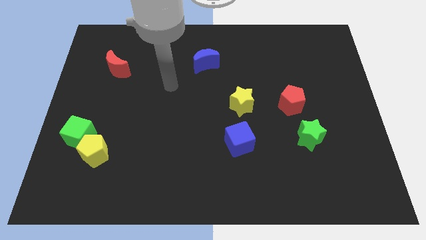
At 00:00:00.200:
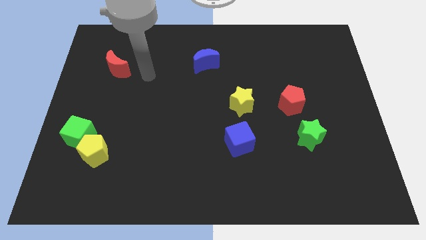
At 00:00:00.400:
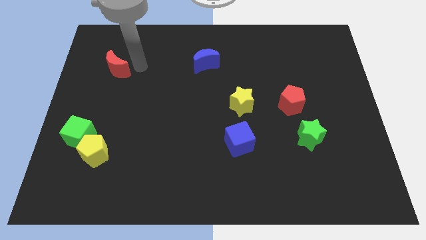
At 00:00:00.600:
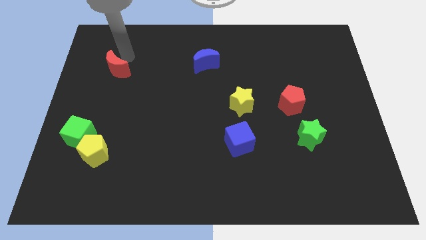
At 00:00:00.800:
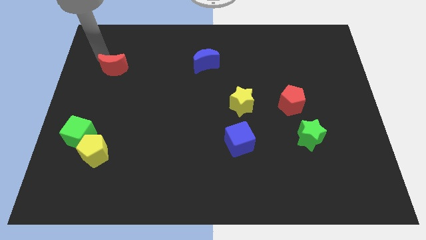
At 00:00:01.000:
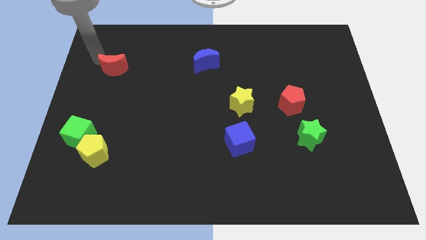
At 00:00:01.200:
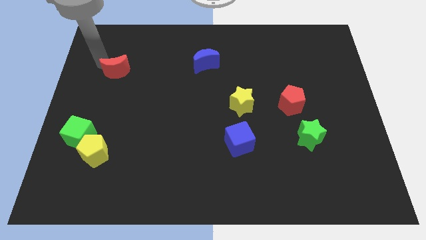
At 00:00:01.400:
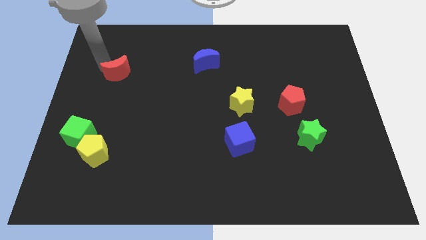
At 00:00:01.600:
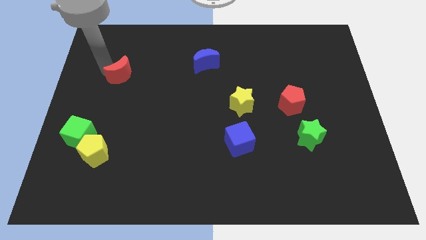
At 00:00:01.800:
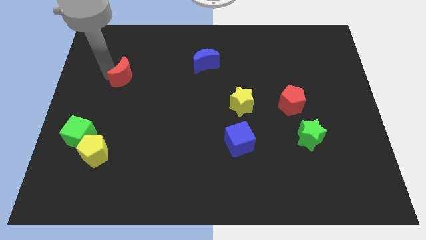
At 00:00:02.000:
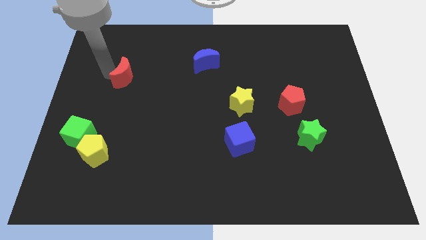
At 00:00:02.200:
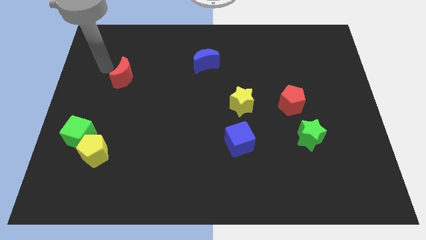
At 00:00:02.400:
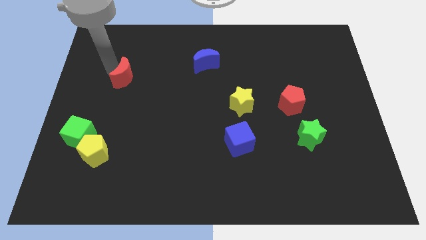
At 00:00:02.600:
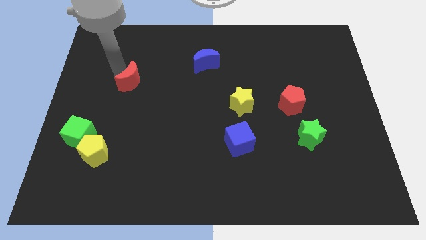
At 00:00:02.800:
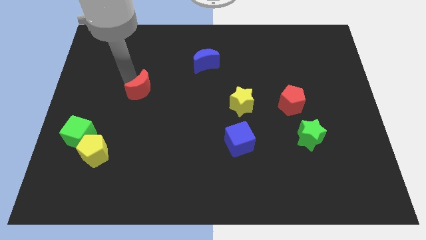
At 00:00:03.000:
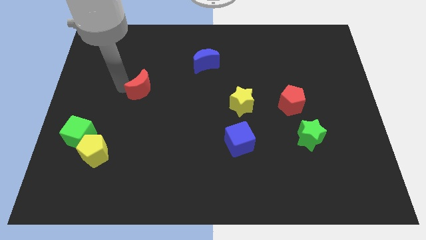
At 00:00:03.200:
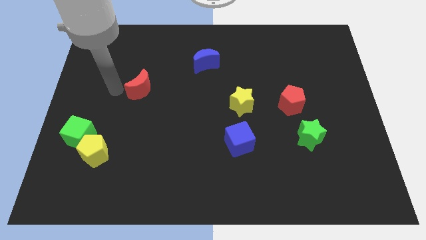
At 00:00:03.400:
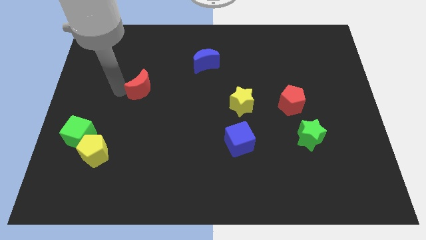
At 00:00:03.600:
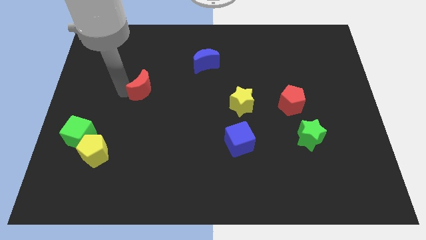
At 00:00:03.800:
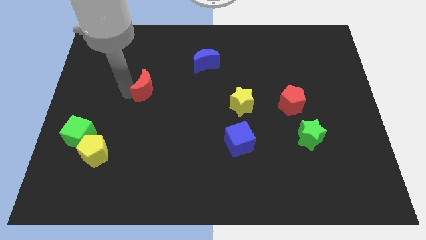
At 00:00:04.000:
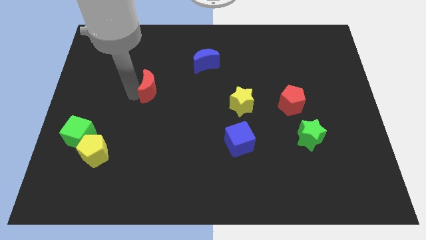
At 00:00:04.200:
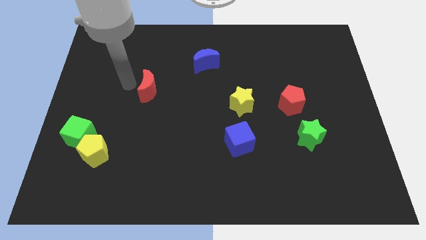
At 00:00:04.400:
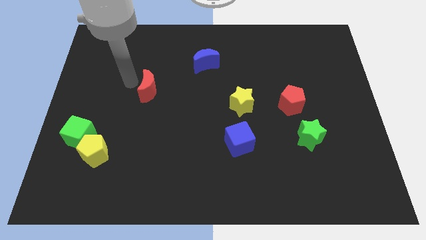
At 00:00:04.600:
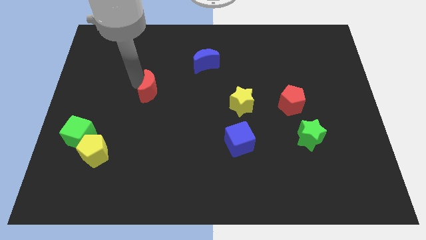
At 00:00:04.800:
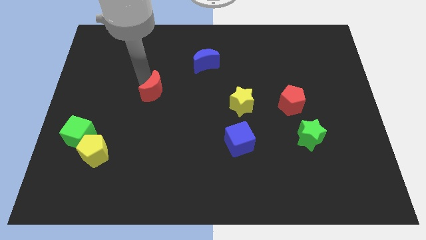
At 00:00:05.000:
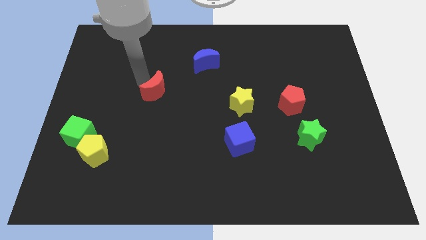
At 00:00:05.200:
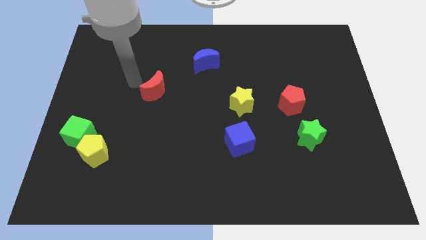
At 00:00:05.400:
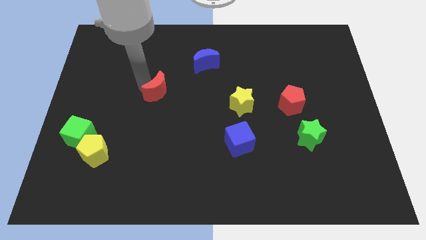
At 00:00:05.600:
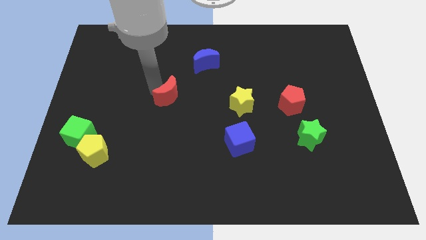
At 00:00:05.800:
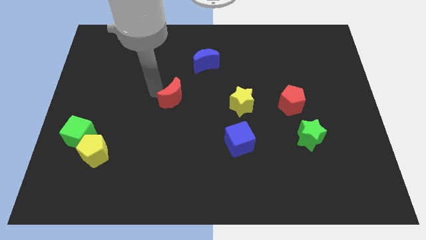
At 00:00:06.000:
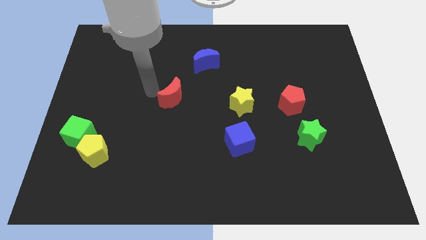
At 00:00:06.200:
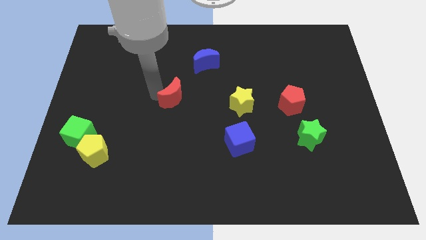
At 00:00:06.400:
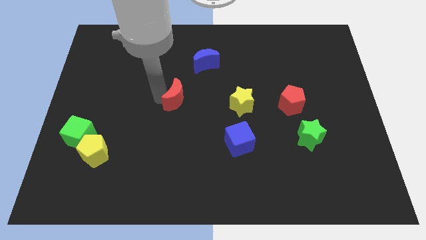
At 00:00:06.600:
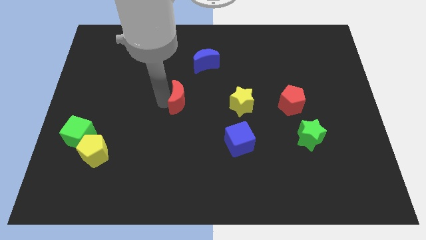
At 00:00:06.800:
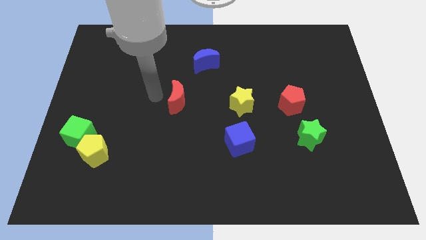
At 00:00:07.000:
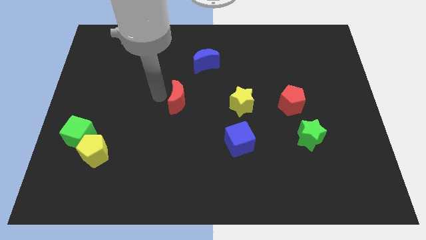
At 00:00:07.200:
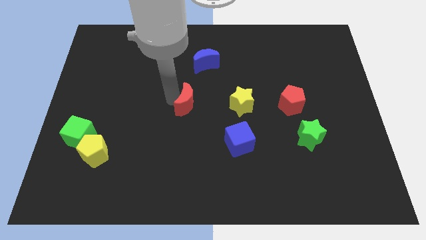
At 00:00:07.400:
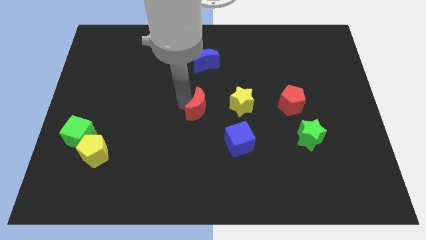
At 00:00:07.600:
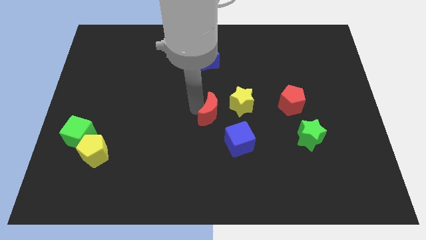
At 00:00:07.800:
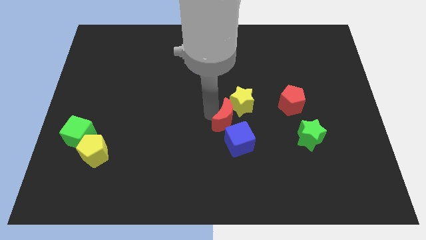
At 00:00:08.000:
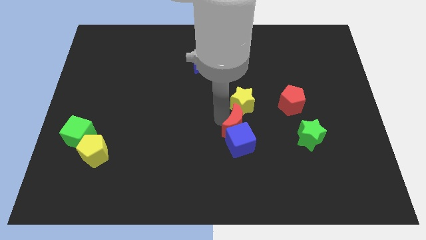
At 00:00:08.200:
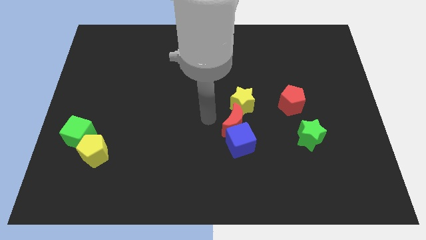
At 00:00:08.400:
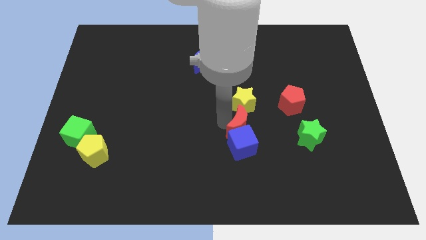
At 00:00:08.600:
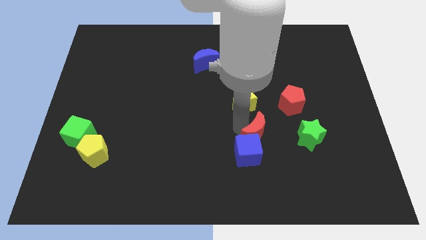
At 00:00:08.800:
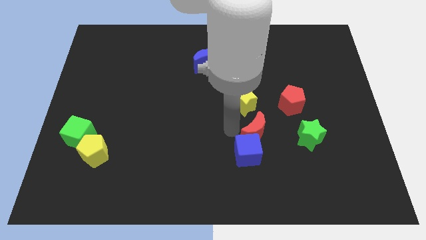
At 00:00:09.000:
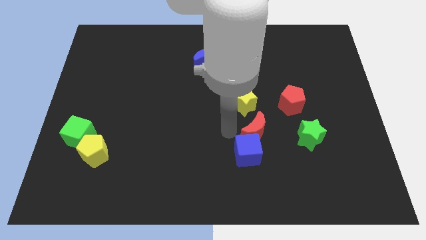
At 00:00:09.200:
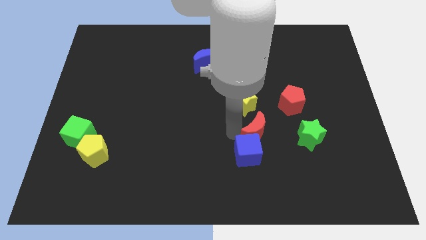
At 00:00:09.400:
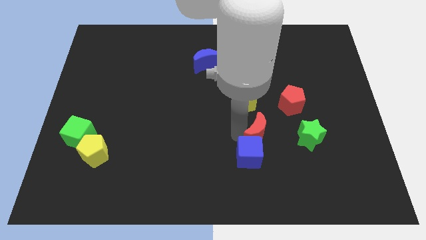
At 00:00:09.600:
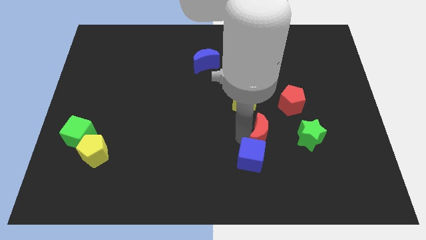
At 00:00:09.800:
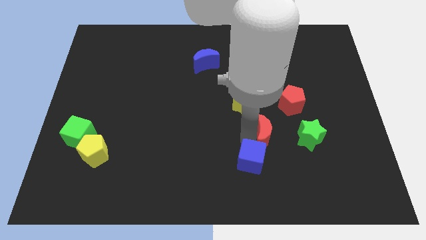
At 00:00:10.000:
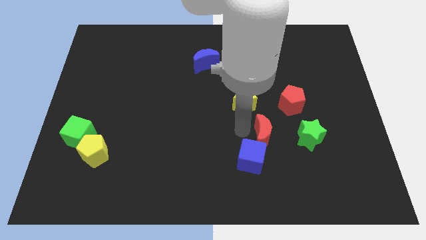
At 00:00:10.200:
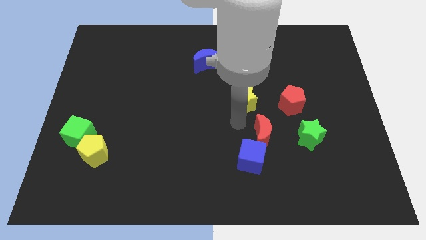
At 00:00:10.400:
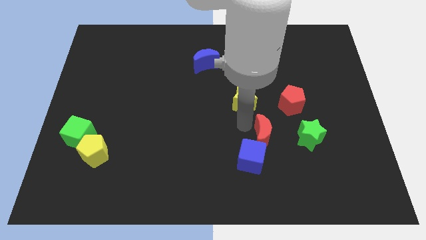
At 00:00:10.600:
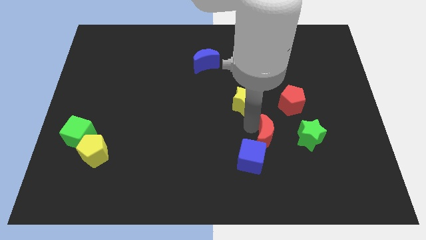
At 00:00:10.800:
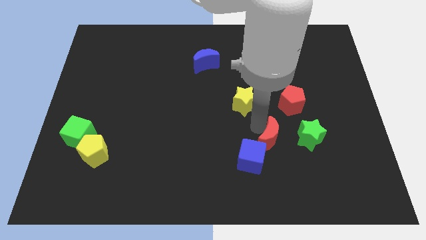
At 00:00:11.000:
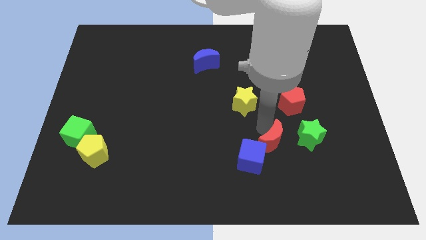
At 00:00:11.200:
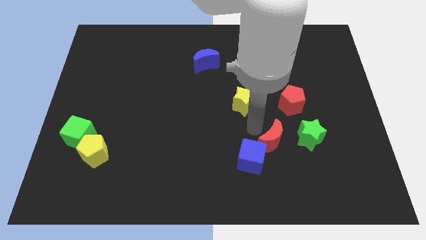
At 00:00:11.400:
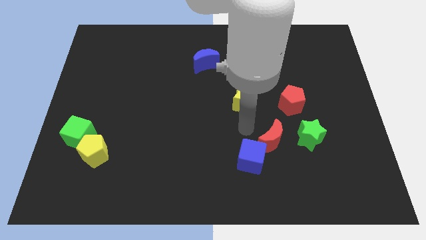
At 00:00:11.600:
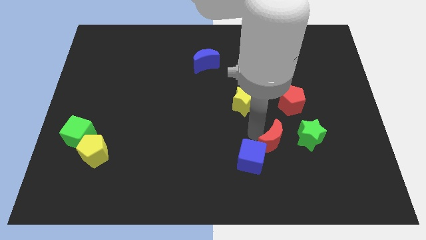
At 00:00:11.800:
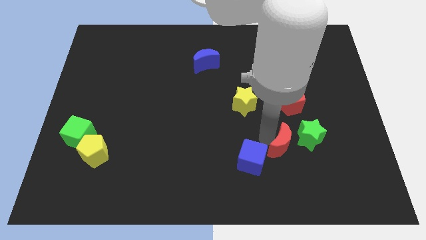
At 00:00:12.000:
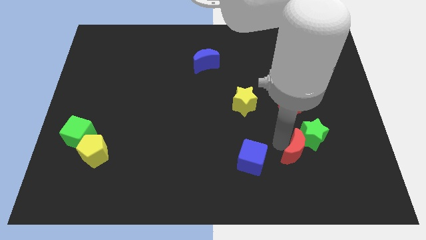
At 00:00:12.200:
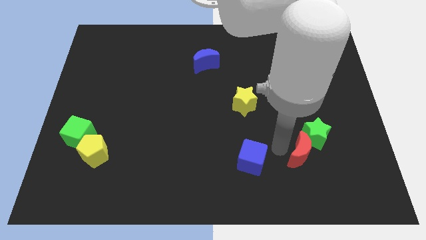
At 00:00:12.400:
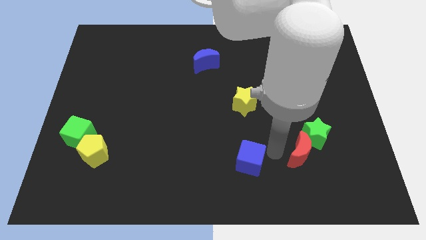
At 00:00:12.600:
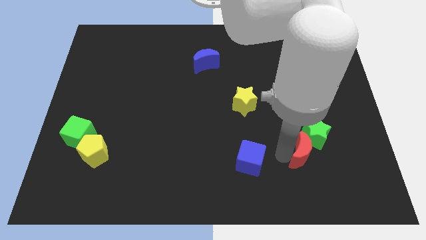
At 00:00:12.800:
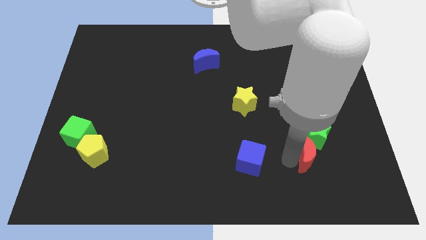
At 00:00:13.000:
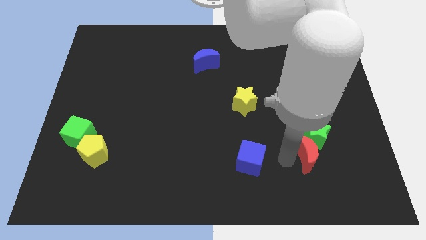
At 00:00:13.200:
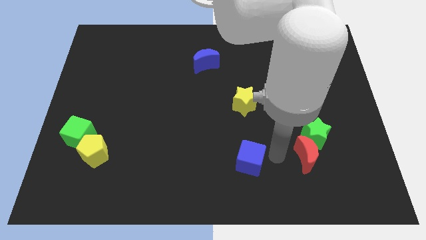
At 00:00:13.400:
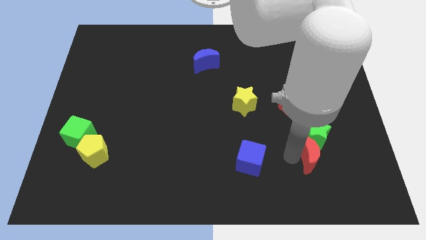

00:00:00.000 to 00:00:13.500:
move the red moon to the bottom right of the green star
